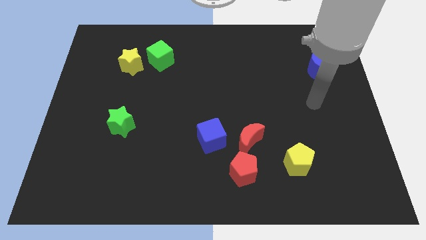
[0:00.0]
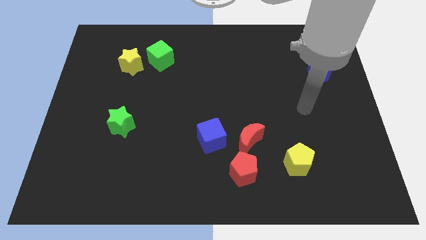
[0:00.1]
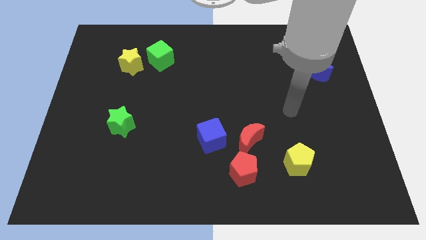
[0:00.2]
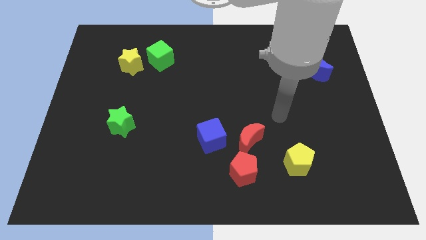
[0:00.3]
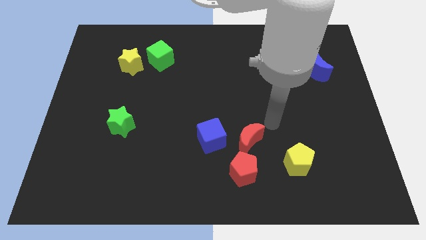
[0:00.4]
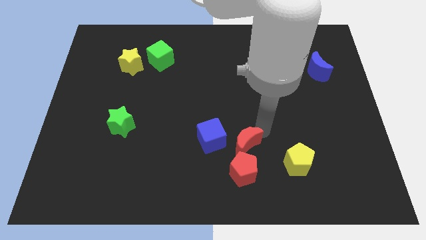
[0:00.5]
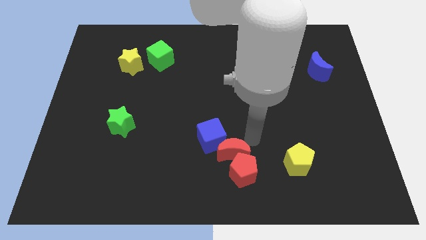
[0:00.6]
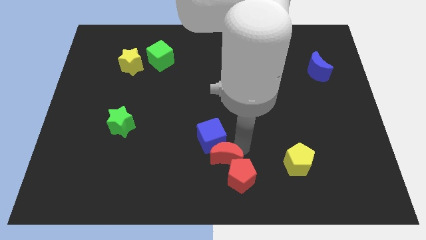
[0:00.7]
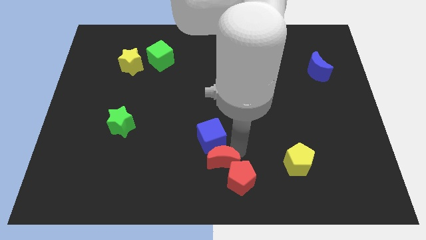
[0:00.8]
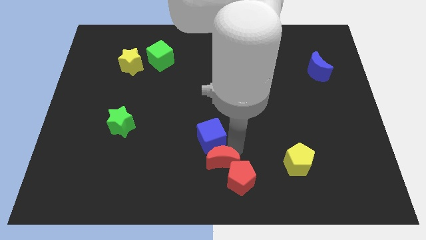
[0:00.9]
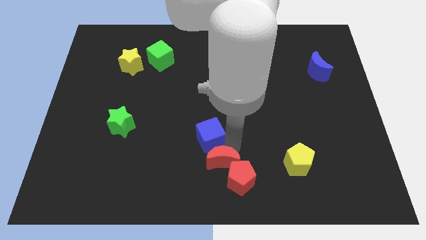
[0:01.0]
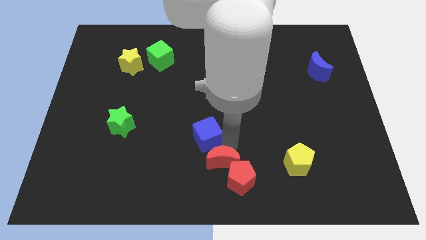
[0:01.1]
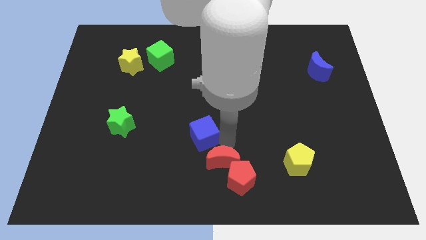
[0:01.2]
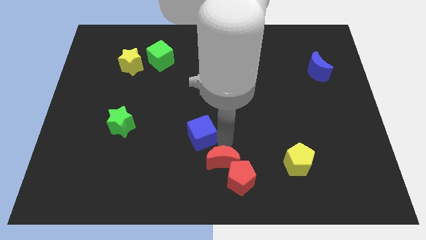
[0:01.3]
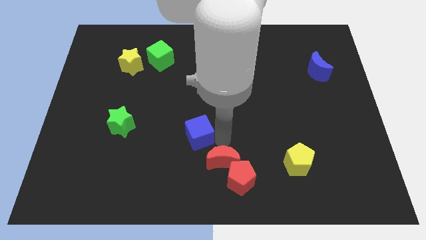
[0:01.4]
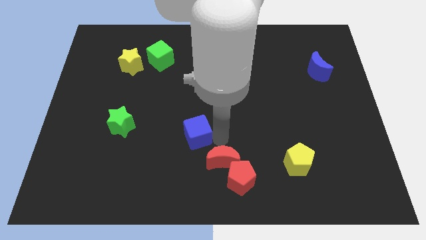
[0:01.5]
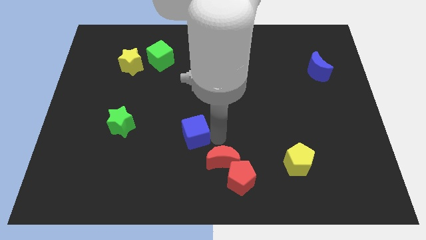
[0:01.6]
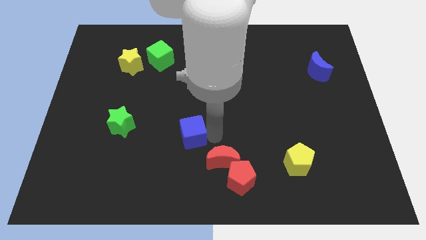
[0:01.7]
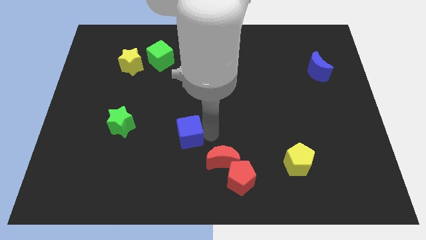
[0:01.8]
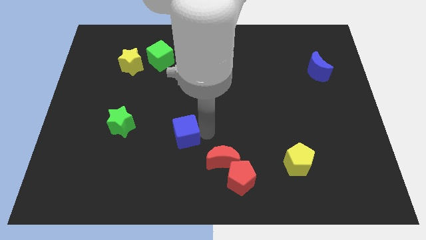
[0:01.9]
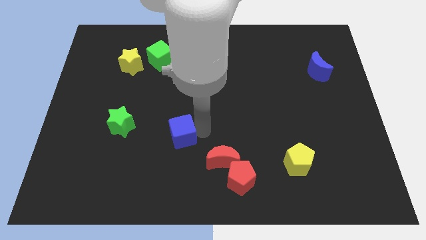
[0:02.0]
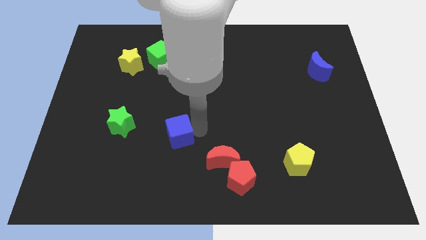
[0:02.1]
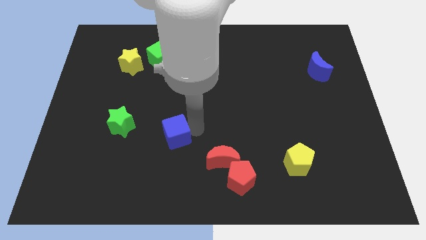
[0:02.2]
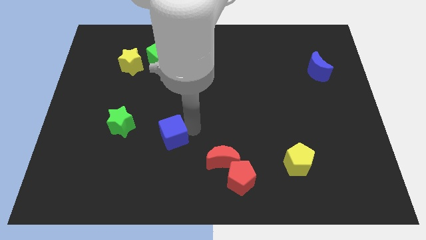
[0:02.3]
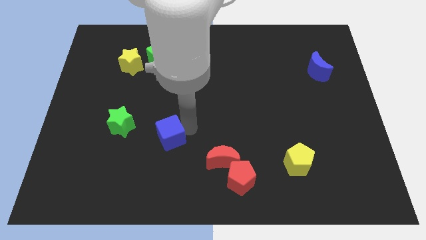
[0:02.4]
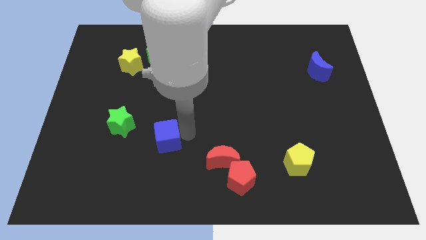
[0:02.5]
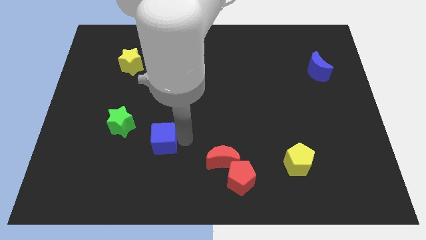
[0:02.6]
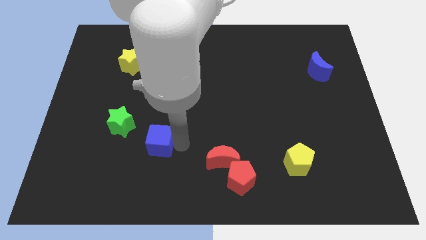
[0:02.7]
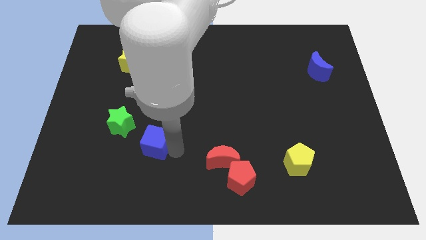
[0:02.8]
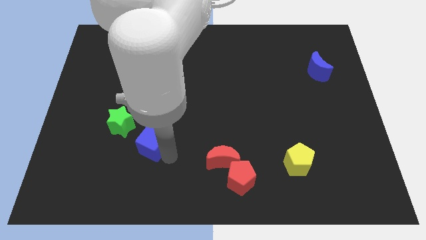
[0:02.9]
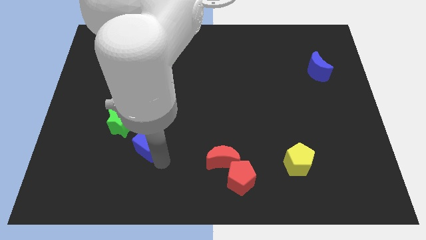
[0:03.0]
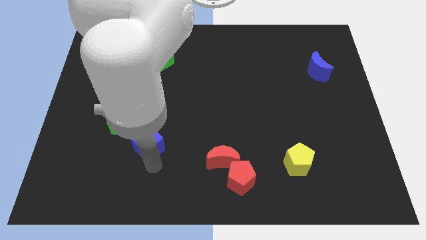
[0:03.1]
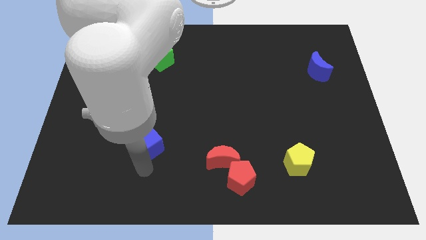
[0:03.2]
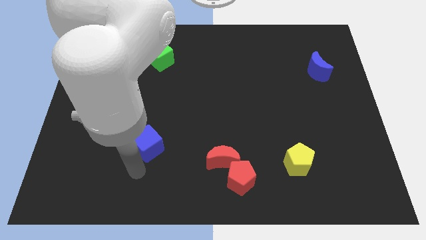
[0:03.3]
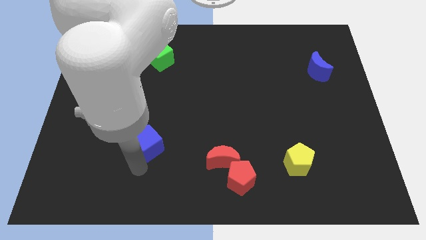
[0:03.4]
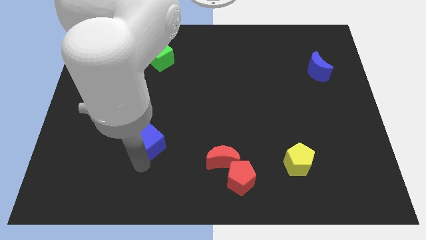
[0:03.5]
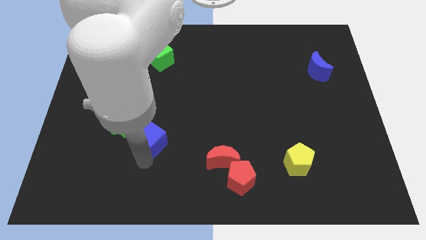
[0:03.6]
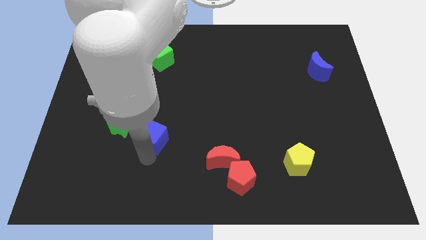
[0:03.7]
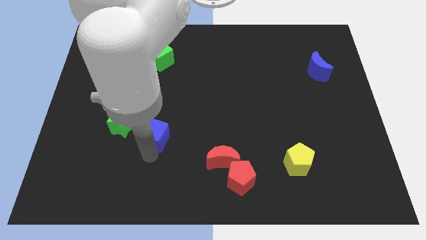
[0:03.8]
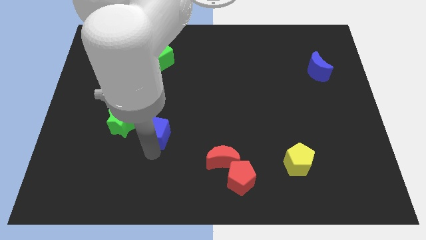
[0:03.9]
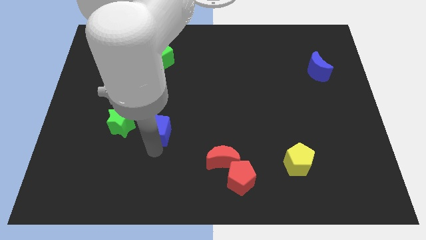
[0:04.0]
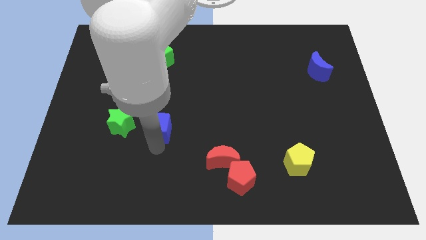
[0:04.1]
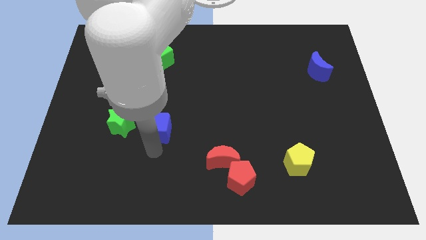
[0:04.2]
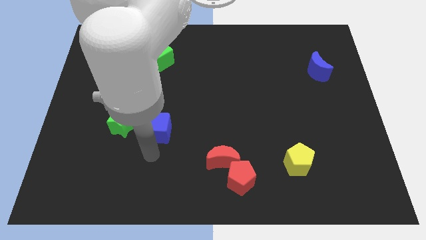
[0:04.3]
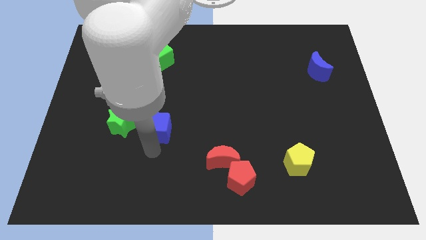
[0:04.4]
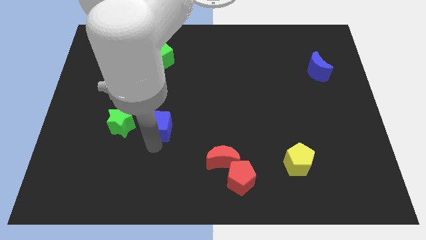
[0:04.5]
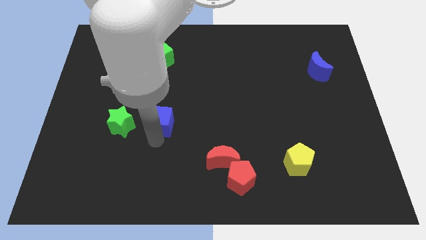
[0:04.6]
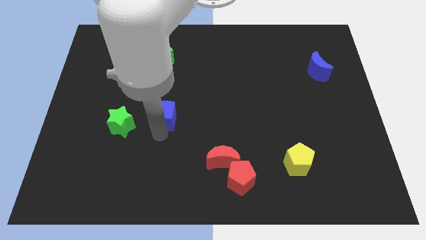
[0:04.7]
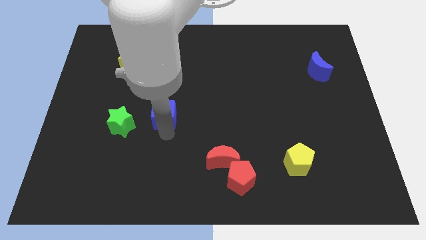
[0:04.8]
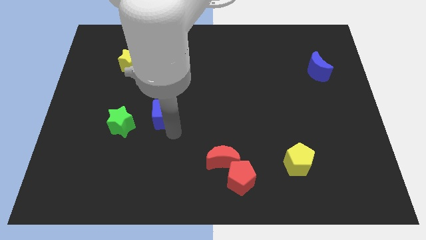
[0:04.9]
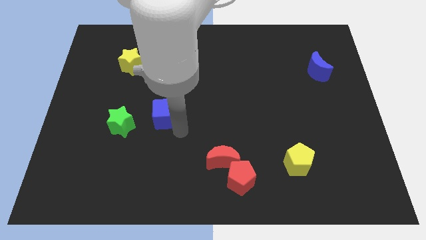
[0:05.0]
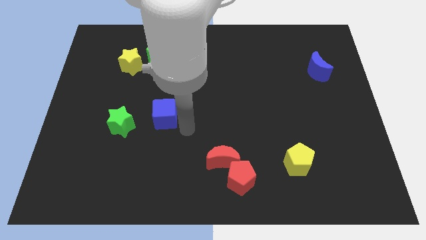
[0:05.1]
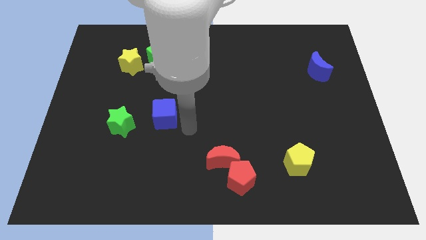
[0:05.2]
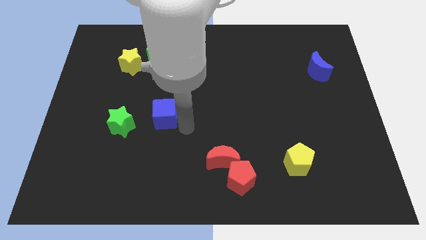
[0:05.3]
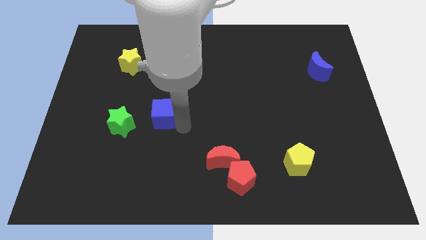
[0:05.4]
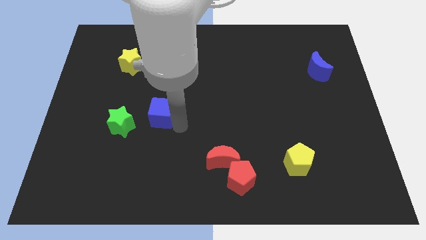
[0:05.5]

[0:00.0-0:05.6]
slide the blue cube diagonally up and to the right of the green star

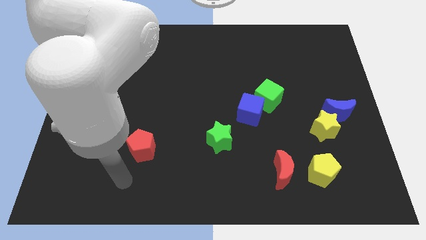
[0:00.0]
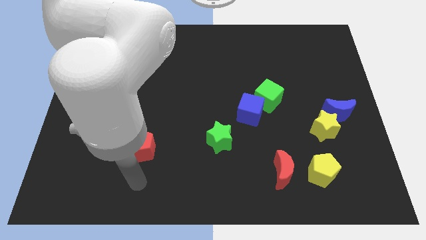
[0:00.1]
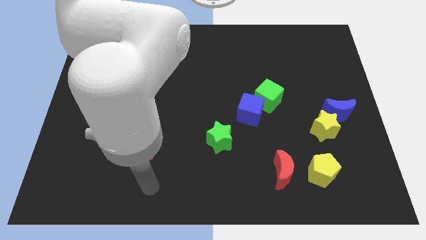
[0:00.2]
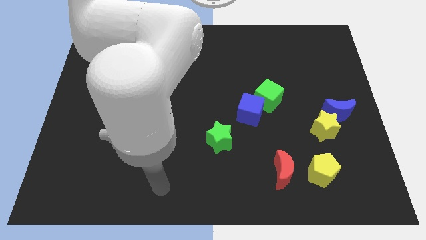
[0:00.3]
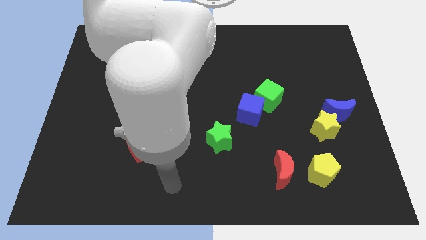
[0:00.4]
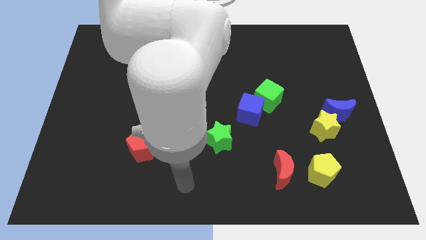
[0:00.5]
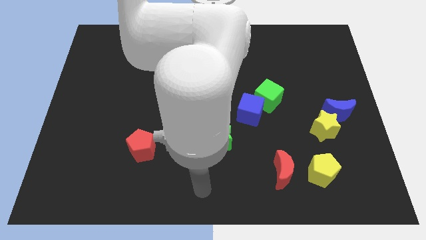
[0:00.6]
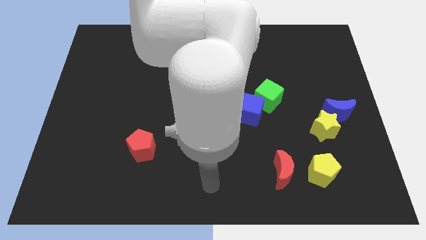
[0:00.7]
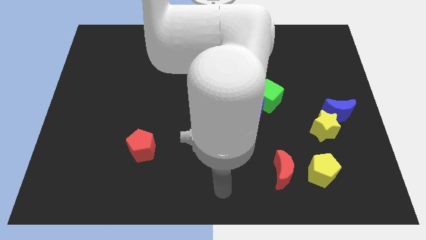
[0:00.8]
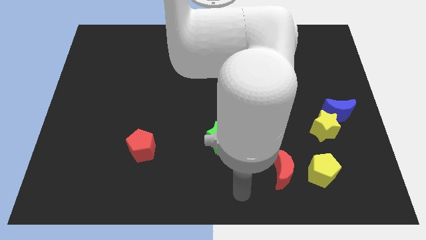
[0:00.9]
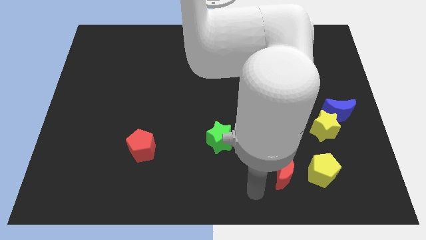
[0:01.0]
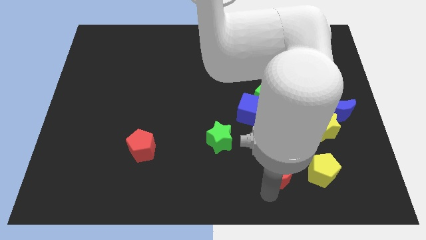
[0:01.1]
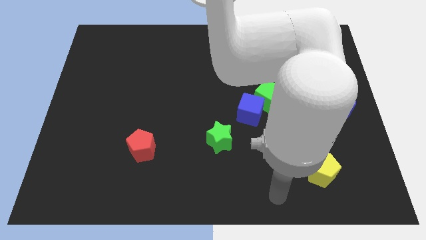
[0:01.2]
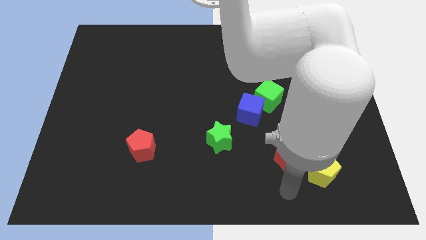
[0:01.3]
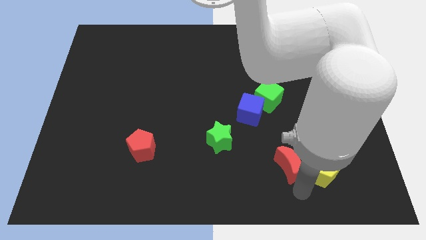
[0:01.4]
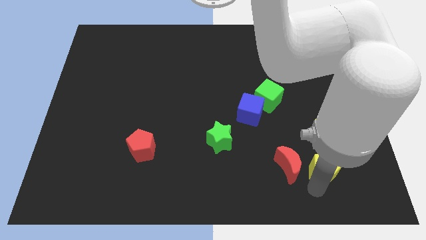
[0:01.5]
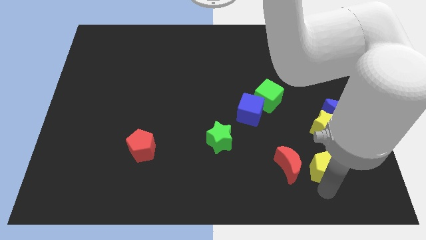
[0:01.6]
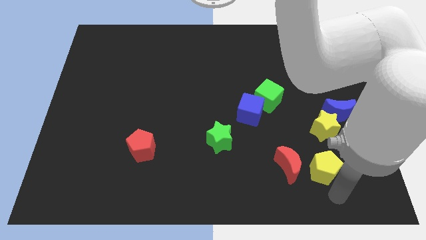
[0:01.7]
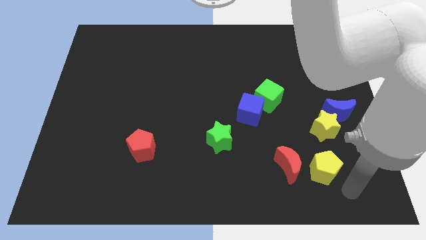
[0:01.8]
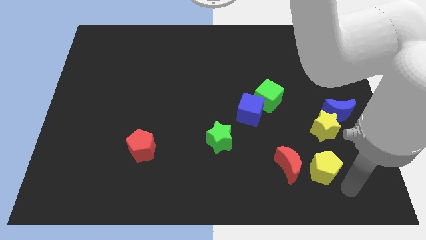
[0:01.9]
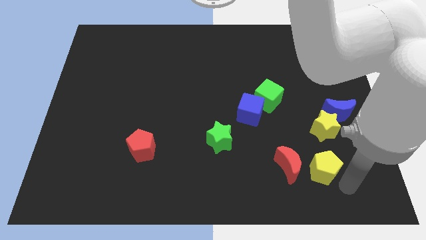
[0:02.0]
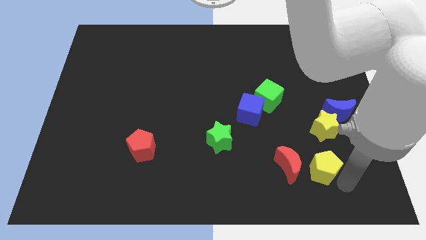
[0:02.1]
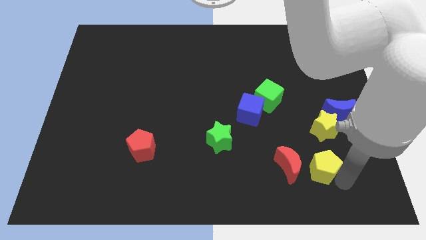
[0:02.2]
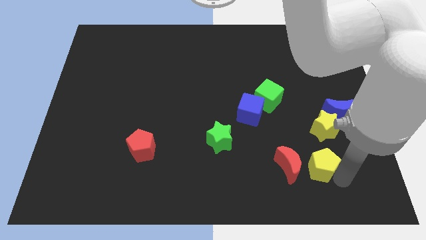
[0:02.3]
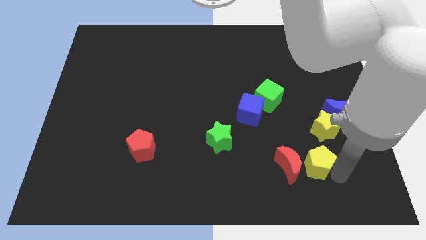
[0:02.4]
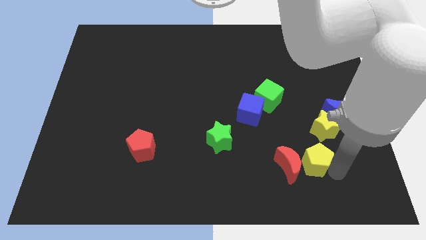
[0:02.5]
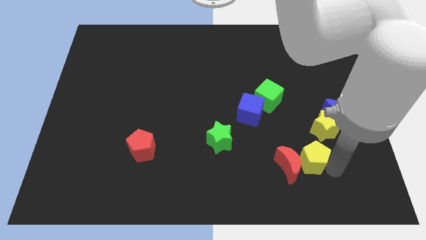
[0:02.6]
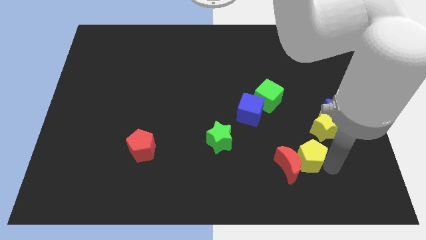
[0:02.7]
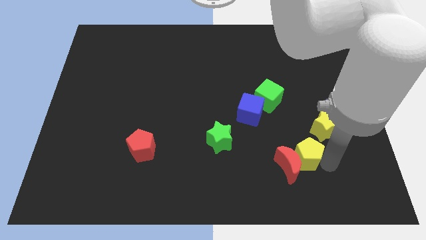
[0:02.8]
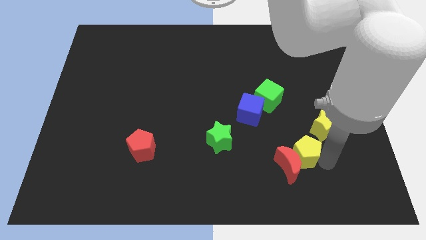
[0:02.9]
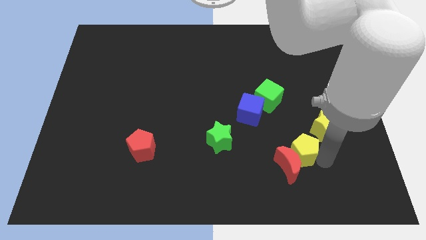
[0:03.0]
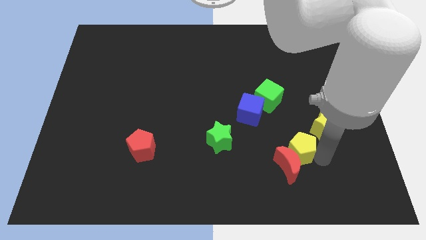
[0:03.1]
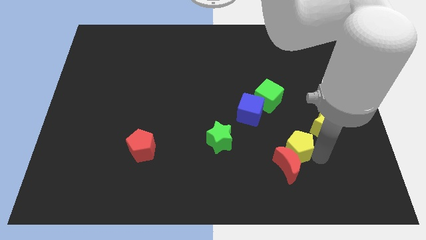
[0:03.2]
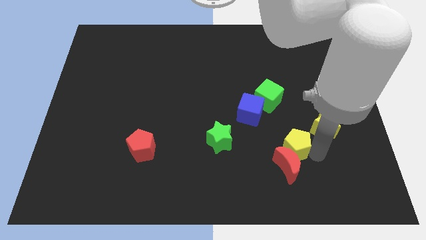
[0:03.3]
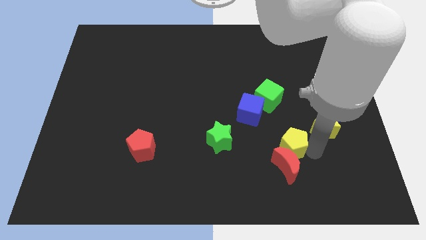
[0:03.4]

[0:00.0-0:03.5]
slide the yellow pentagon to the bottom side of the green cube
